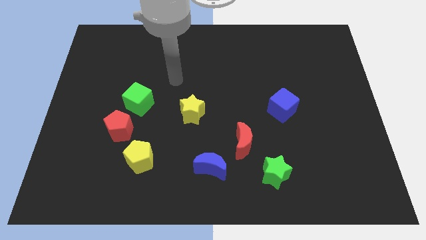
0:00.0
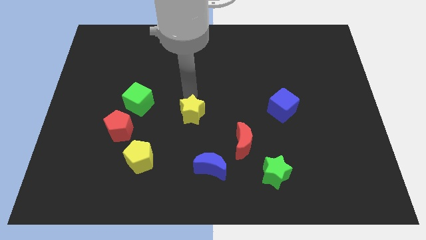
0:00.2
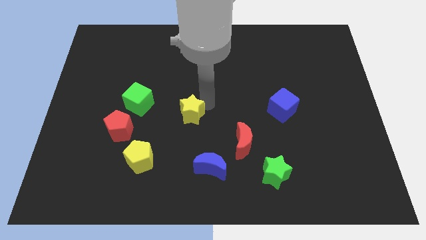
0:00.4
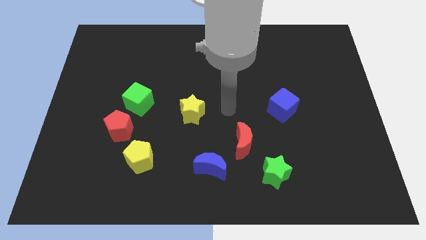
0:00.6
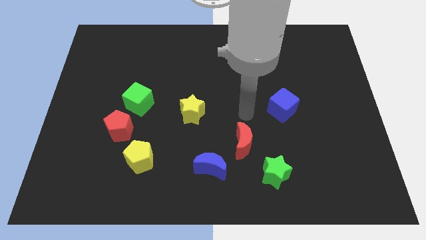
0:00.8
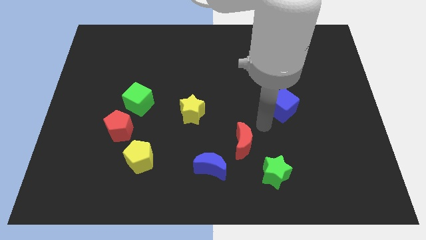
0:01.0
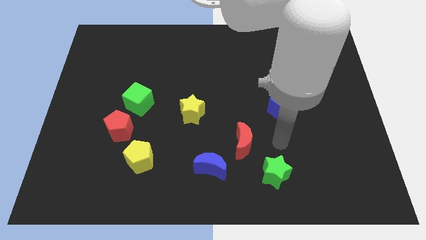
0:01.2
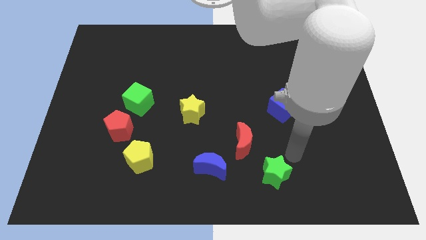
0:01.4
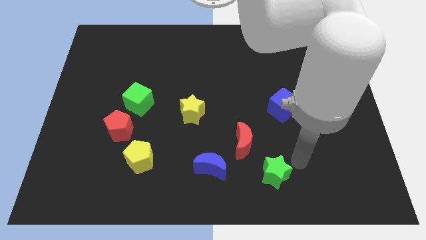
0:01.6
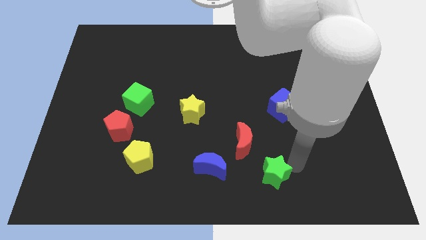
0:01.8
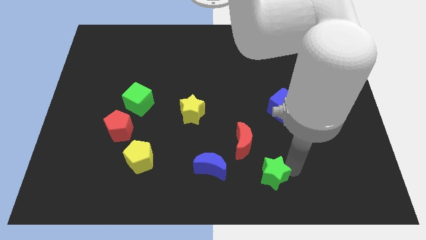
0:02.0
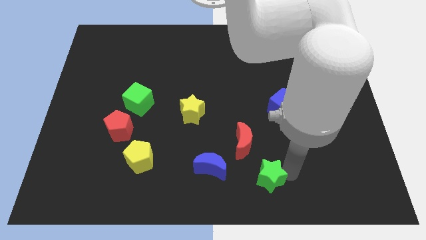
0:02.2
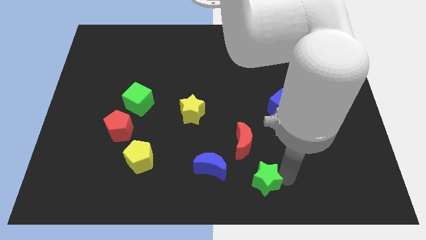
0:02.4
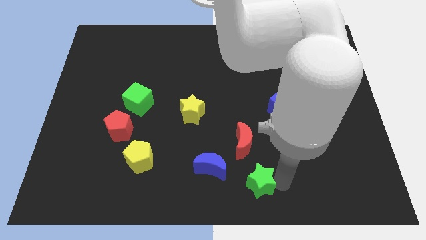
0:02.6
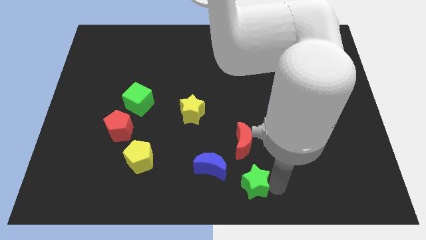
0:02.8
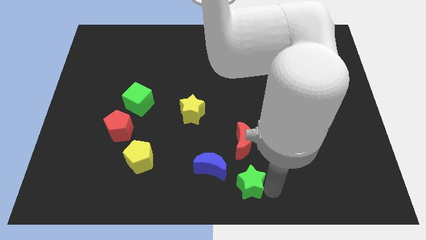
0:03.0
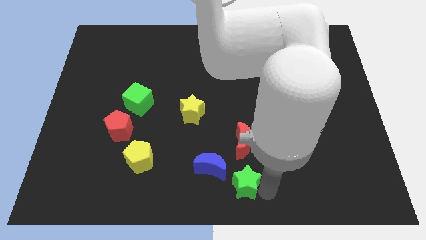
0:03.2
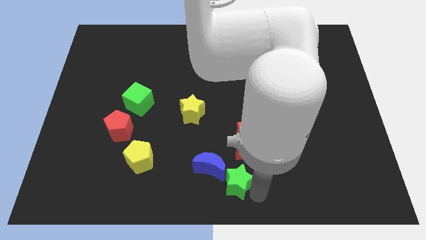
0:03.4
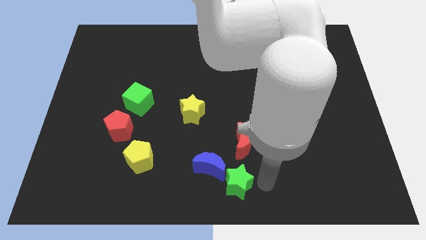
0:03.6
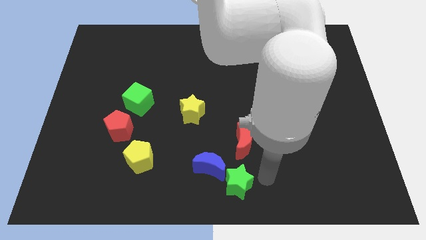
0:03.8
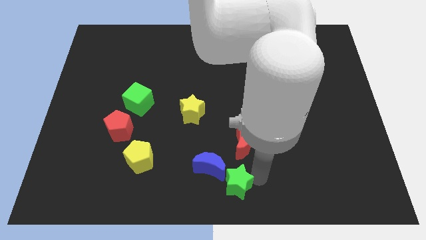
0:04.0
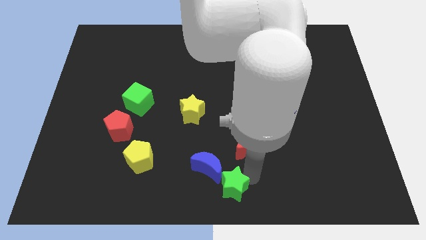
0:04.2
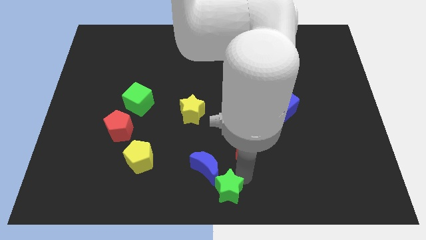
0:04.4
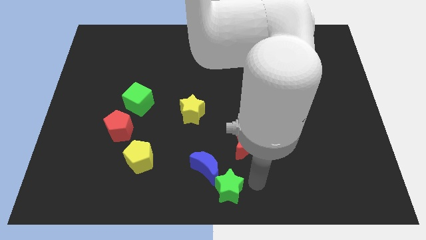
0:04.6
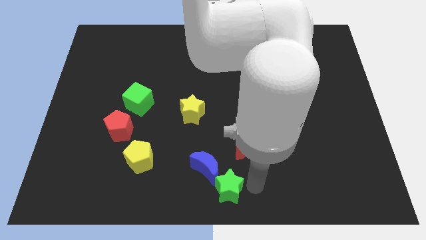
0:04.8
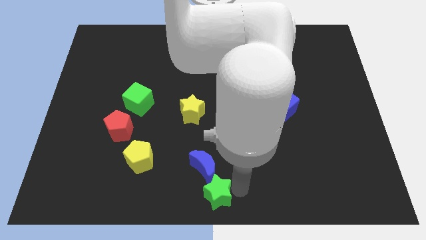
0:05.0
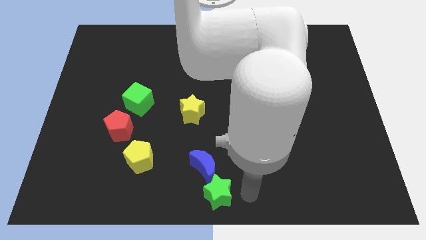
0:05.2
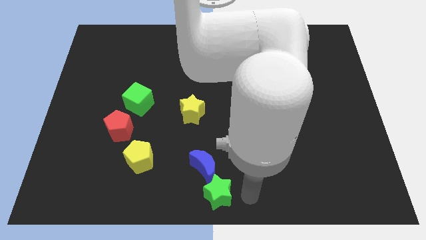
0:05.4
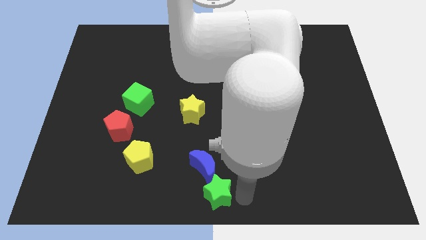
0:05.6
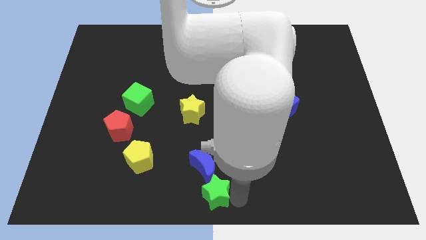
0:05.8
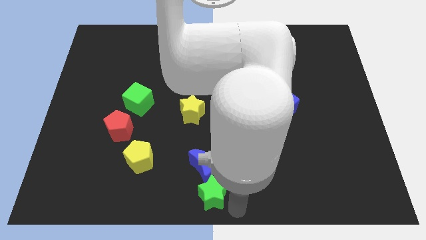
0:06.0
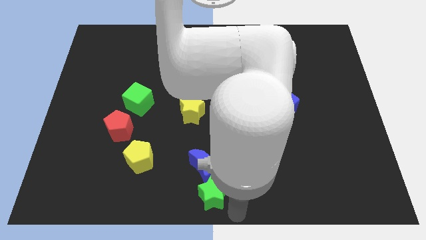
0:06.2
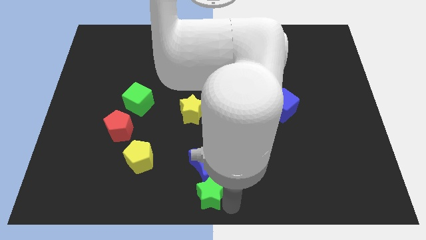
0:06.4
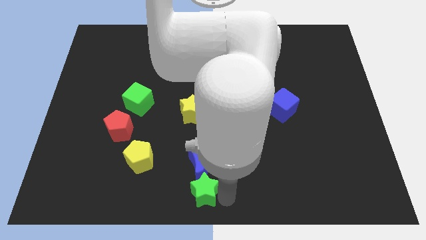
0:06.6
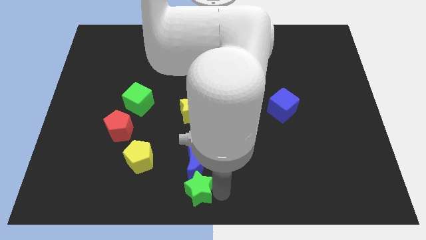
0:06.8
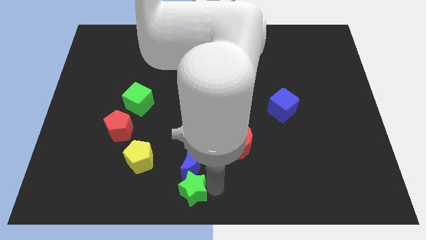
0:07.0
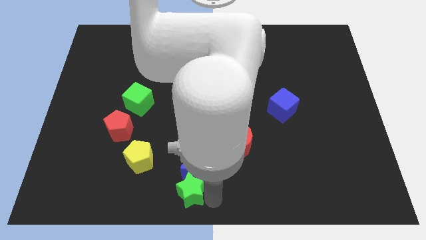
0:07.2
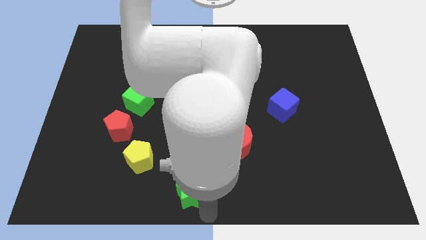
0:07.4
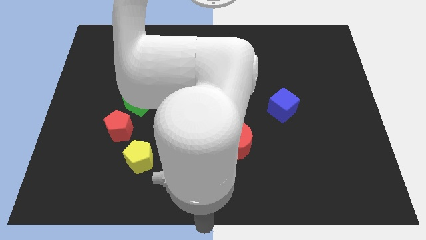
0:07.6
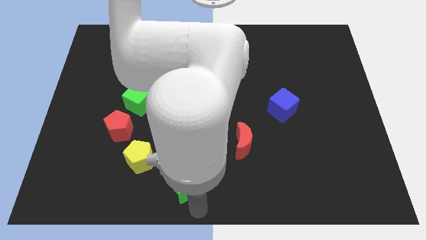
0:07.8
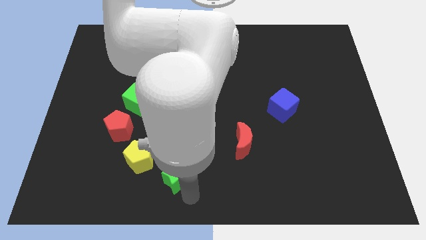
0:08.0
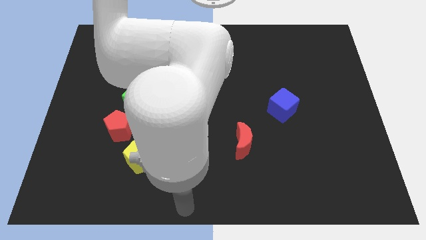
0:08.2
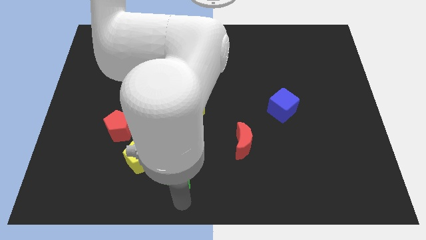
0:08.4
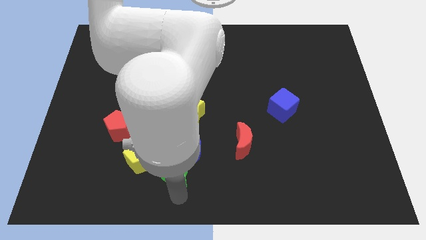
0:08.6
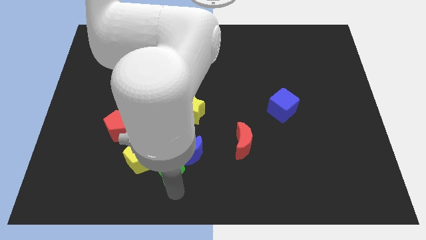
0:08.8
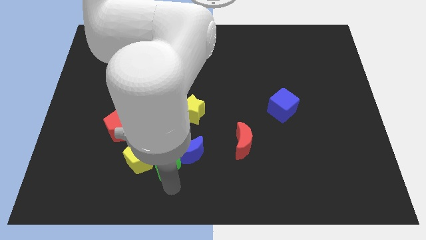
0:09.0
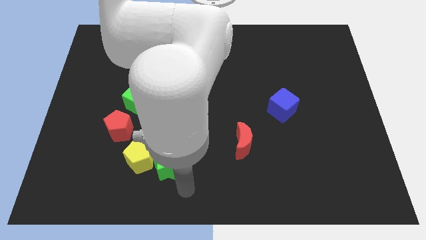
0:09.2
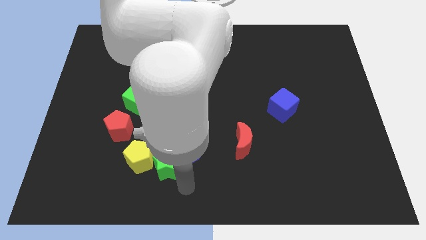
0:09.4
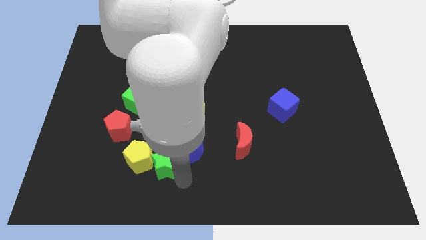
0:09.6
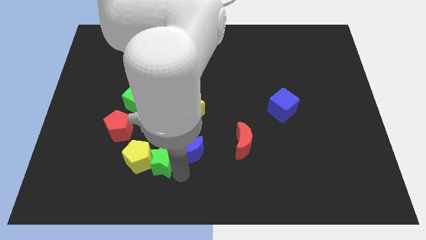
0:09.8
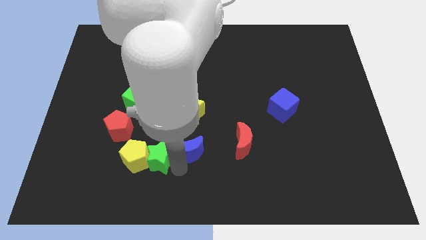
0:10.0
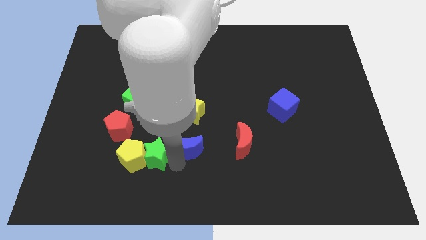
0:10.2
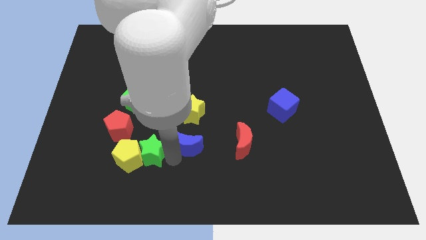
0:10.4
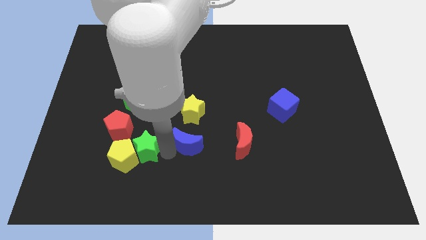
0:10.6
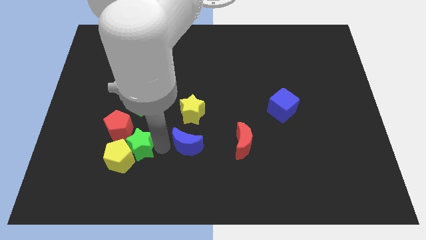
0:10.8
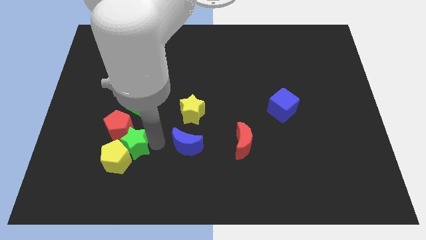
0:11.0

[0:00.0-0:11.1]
move the green star next to the red pentagon

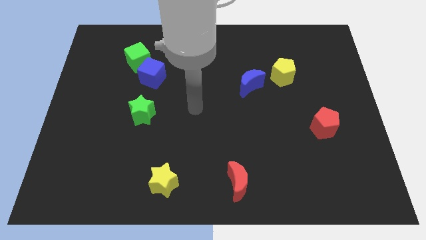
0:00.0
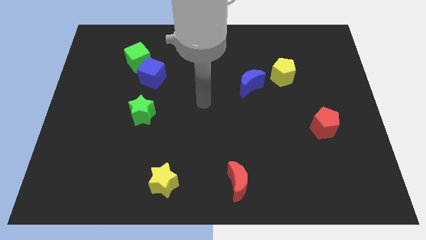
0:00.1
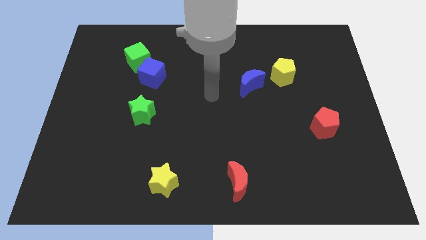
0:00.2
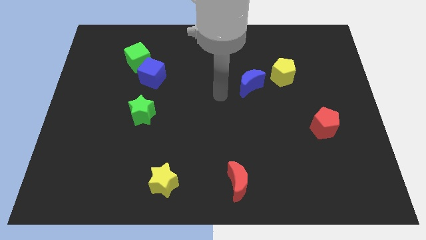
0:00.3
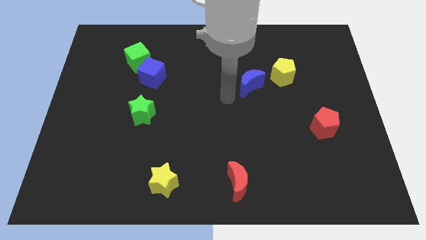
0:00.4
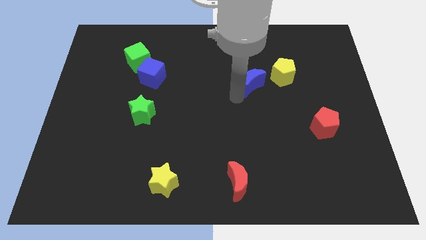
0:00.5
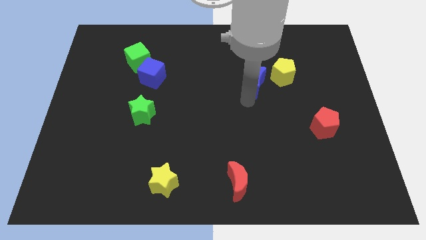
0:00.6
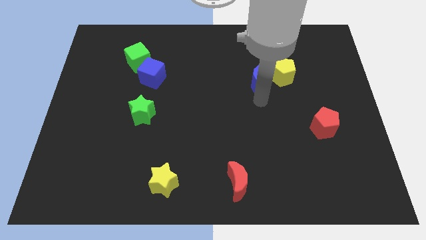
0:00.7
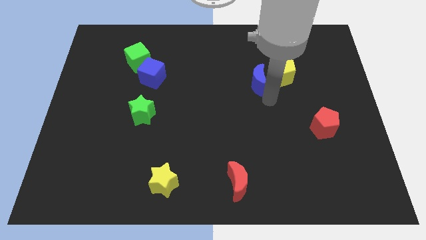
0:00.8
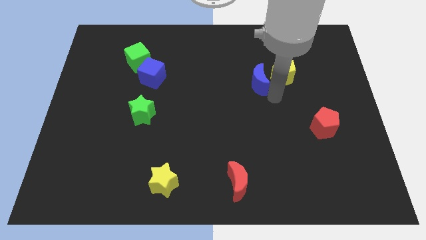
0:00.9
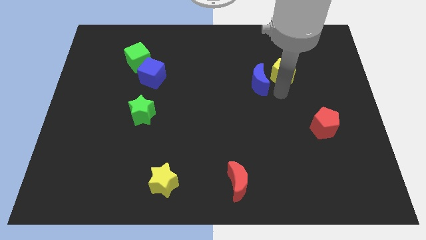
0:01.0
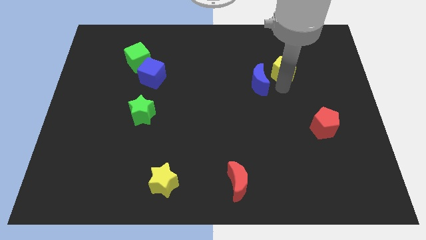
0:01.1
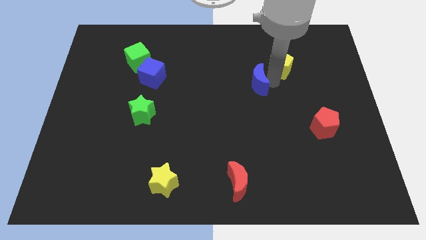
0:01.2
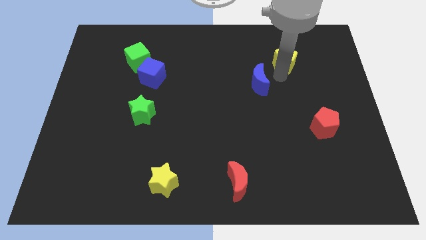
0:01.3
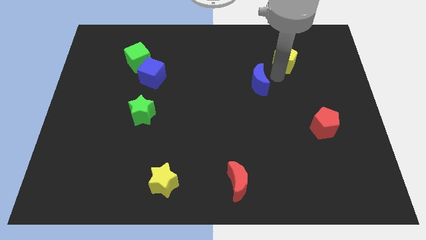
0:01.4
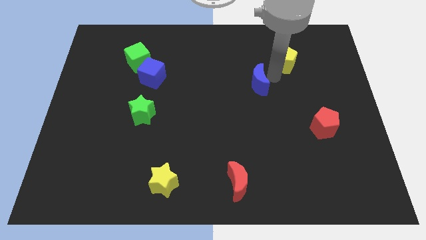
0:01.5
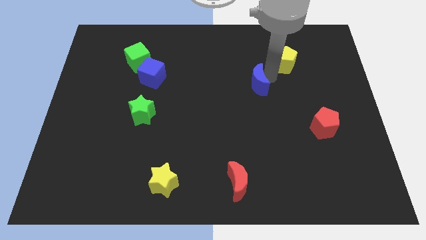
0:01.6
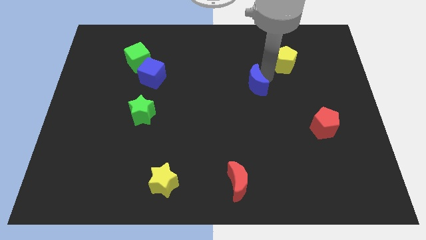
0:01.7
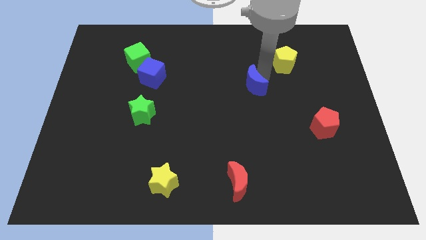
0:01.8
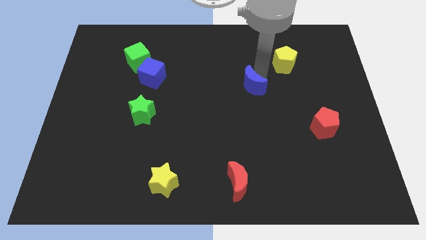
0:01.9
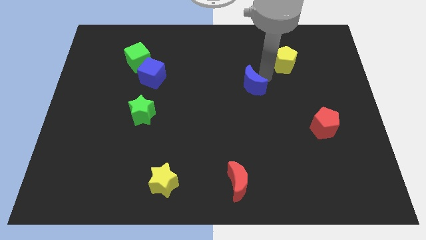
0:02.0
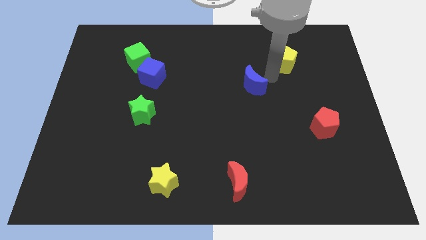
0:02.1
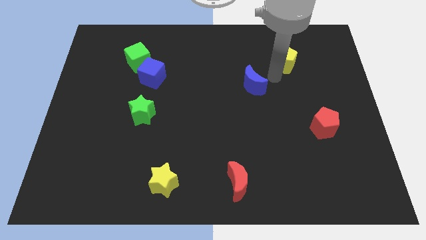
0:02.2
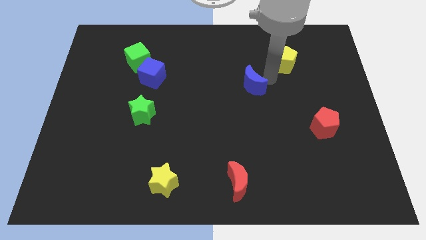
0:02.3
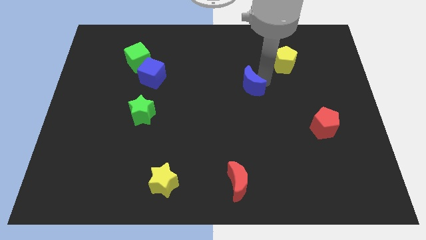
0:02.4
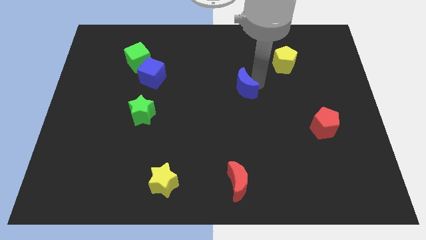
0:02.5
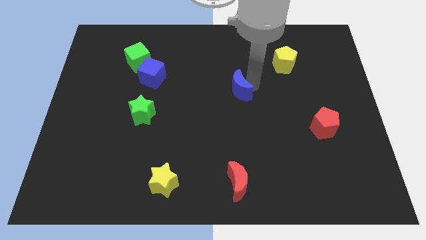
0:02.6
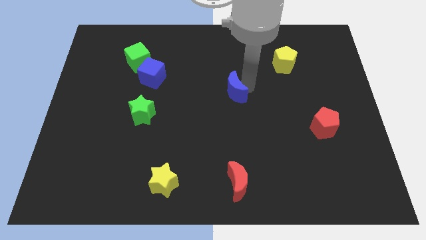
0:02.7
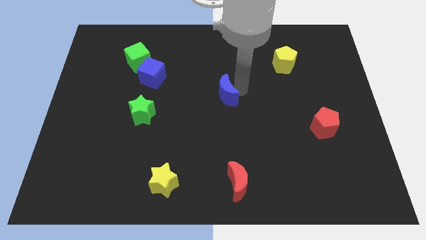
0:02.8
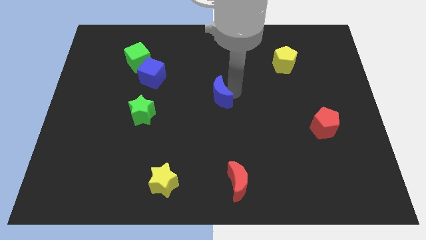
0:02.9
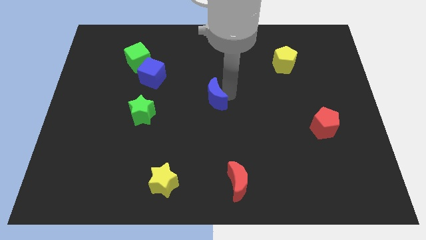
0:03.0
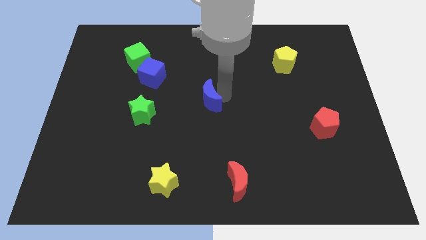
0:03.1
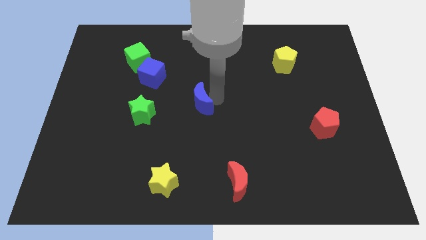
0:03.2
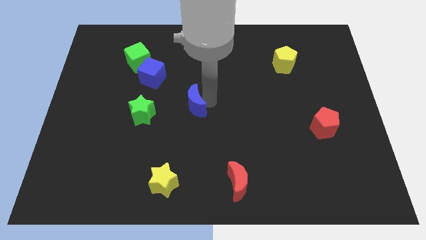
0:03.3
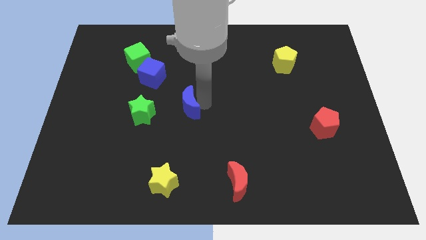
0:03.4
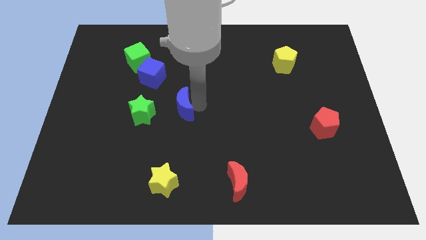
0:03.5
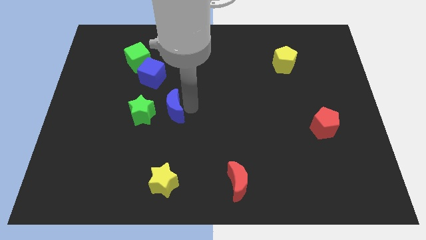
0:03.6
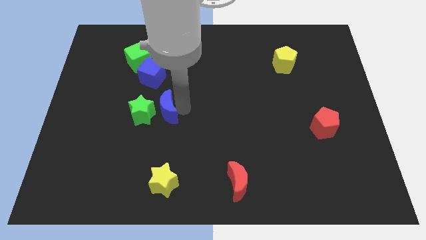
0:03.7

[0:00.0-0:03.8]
put the blue moon to the green star
